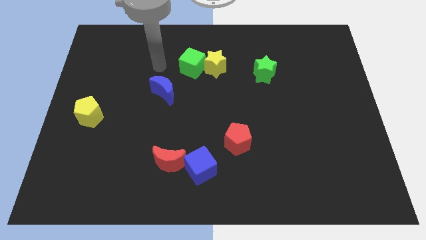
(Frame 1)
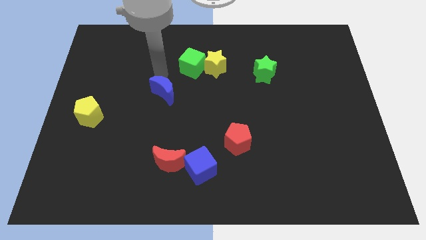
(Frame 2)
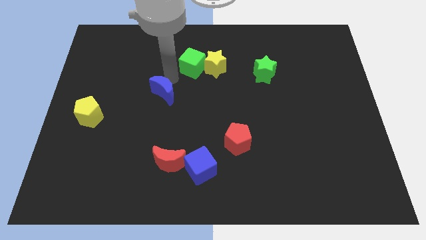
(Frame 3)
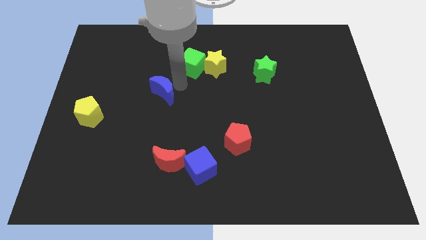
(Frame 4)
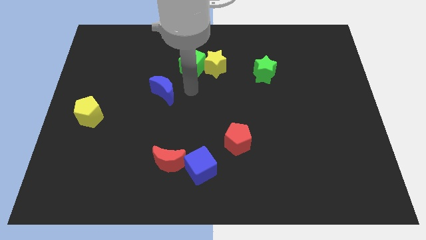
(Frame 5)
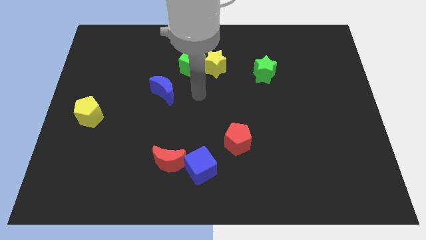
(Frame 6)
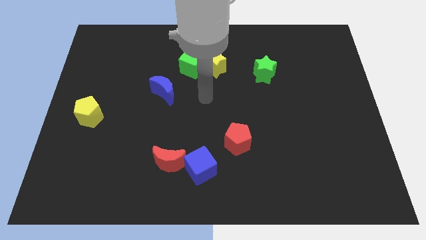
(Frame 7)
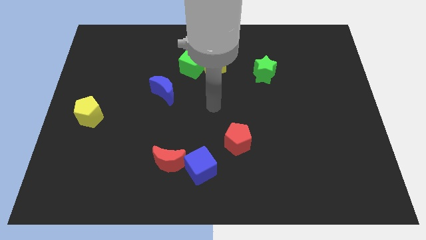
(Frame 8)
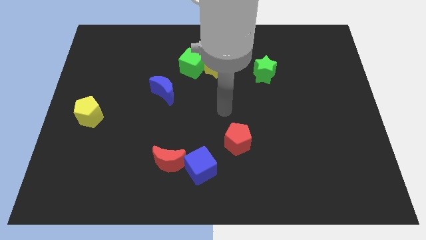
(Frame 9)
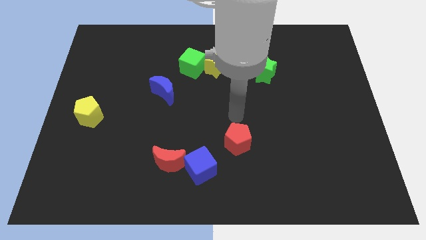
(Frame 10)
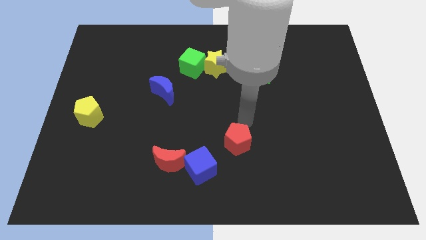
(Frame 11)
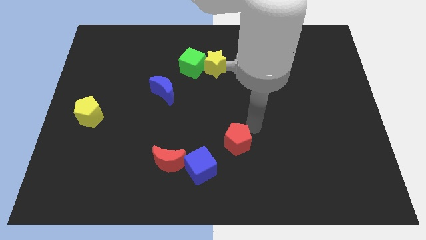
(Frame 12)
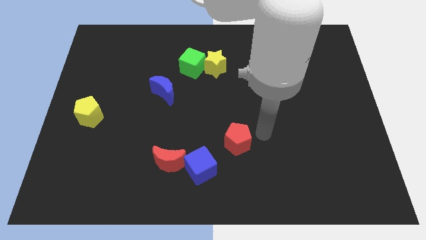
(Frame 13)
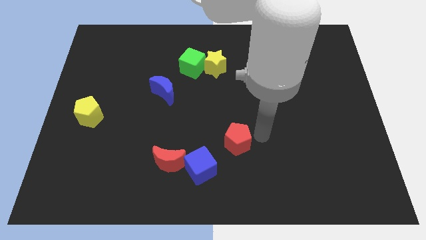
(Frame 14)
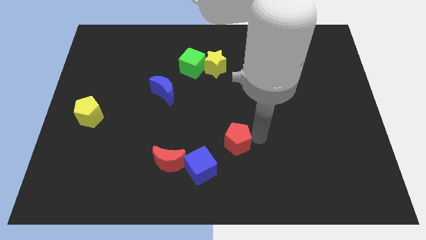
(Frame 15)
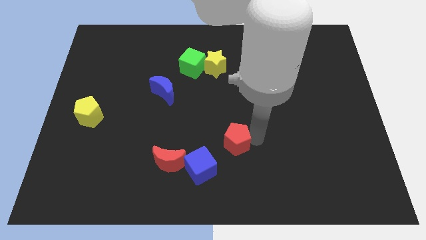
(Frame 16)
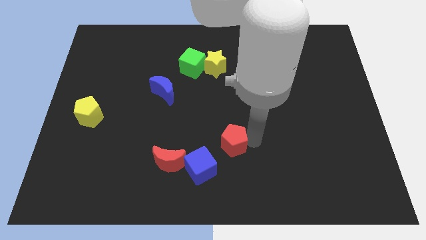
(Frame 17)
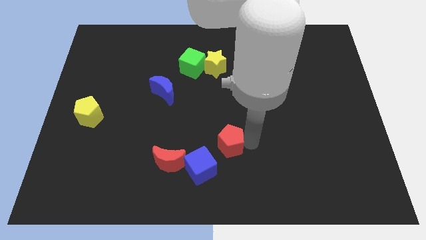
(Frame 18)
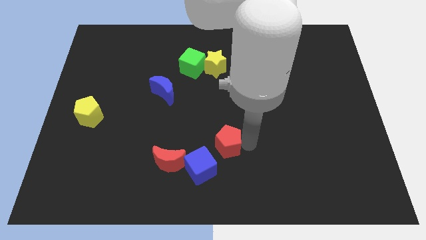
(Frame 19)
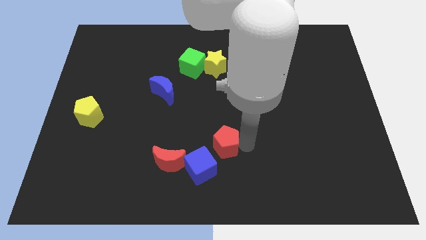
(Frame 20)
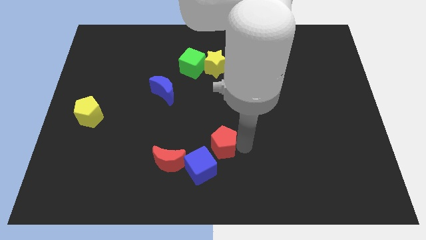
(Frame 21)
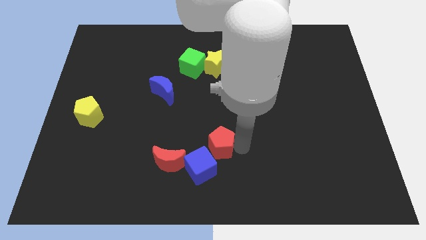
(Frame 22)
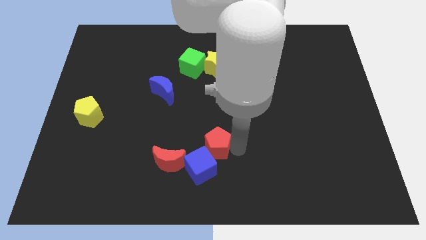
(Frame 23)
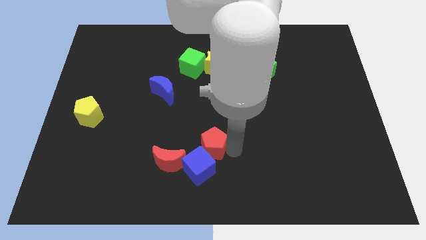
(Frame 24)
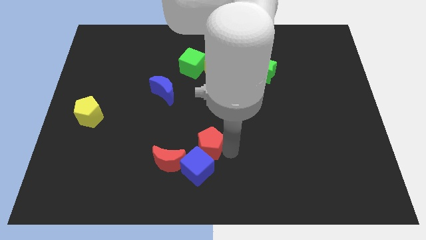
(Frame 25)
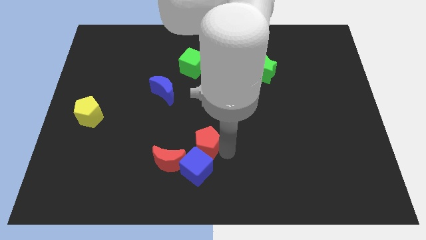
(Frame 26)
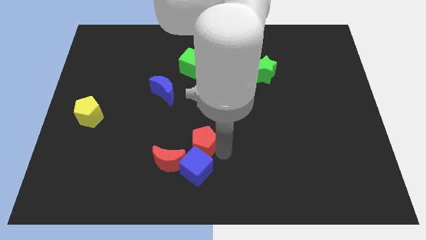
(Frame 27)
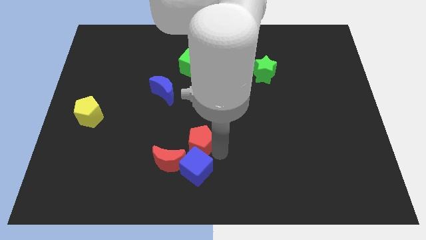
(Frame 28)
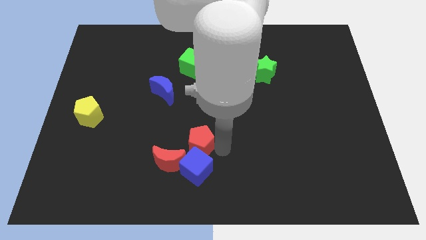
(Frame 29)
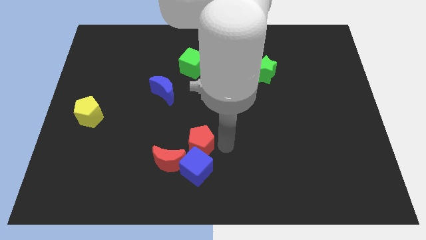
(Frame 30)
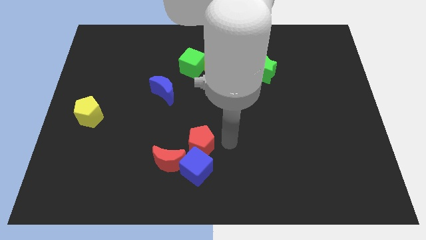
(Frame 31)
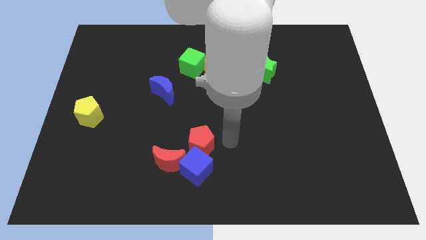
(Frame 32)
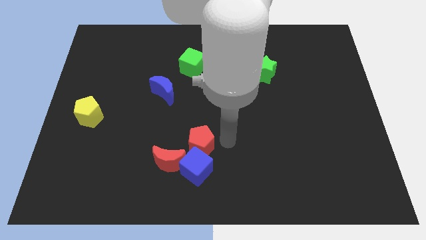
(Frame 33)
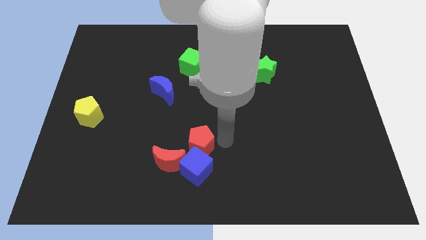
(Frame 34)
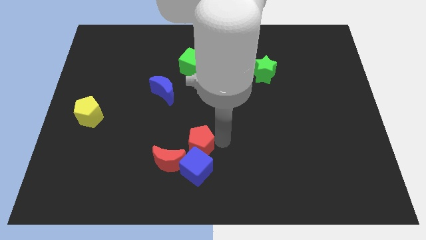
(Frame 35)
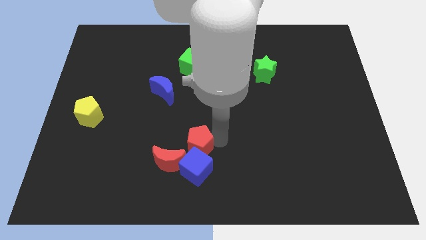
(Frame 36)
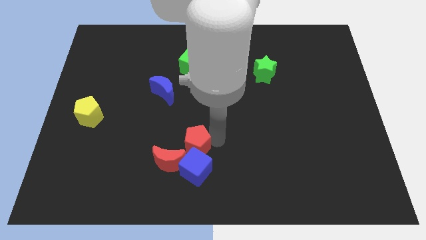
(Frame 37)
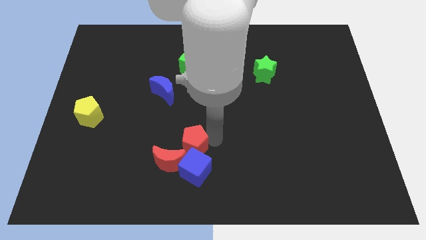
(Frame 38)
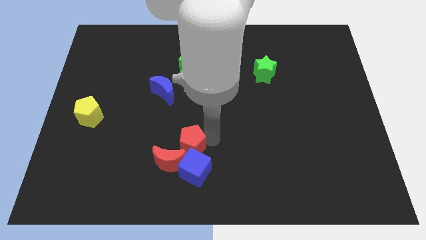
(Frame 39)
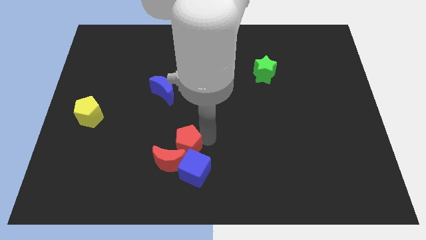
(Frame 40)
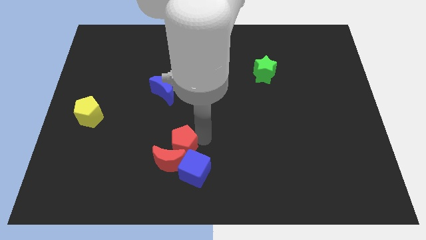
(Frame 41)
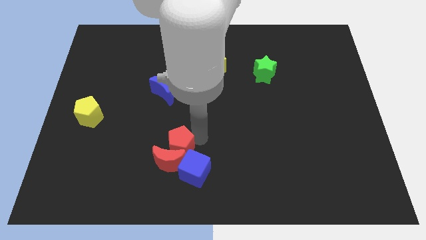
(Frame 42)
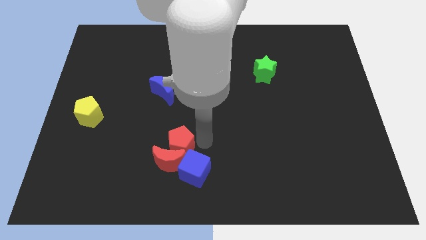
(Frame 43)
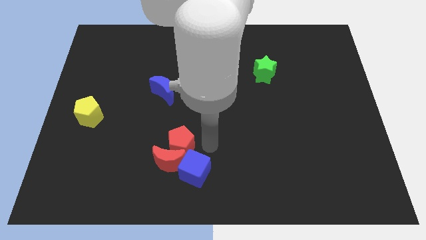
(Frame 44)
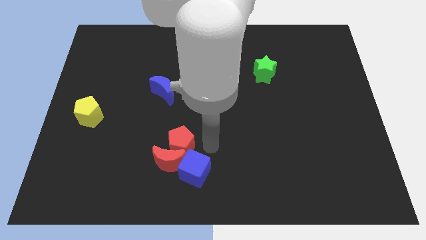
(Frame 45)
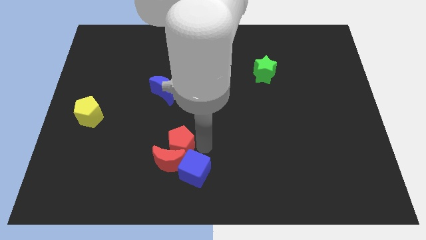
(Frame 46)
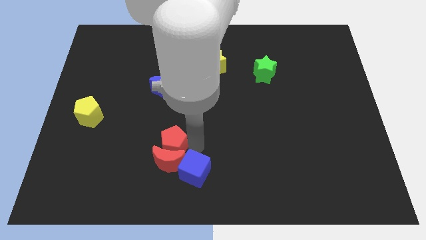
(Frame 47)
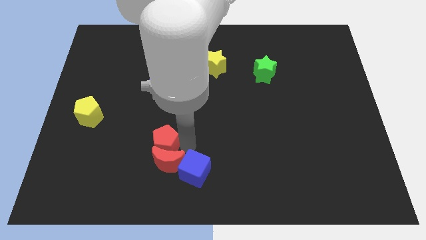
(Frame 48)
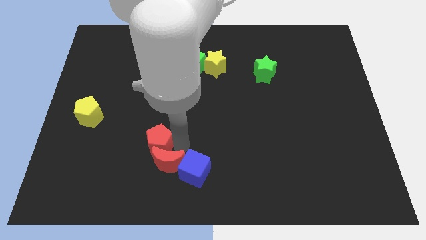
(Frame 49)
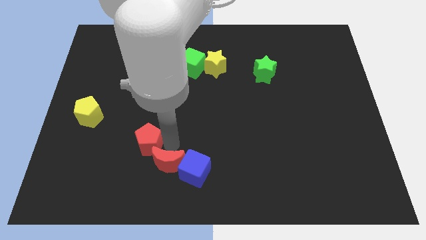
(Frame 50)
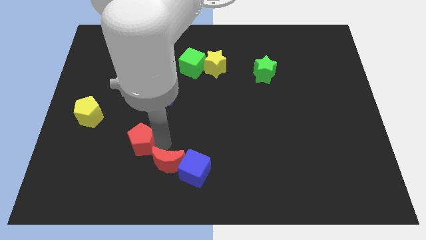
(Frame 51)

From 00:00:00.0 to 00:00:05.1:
push the red pentagon to the left

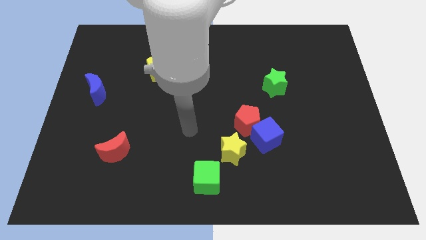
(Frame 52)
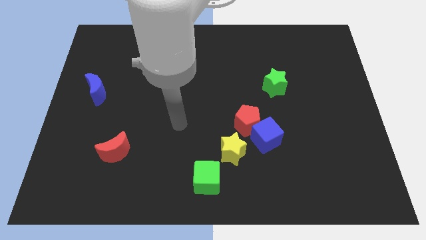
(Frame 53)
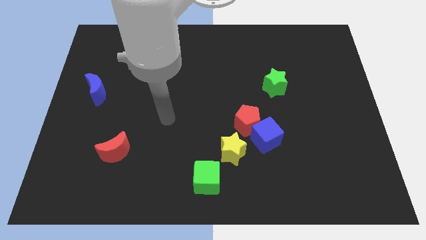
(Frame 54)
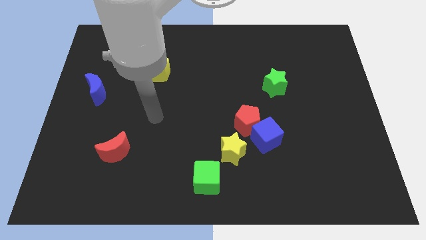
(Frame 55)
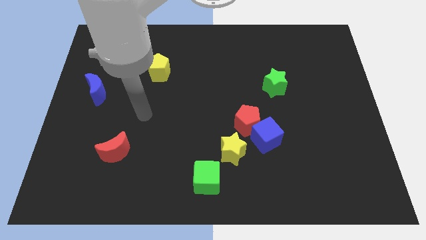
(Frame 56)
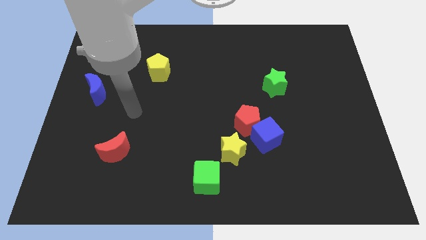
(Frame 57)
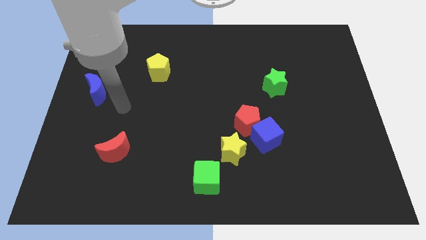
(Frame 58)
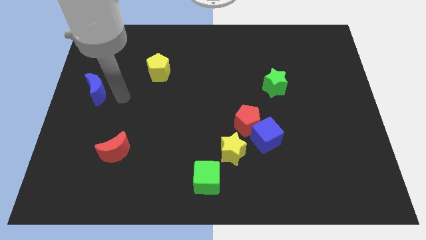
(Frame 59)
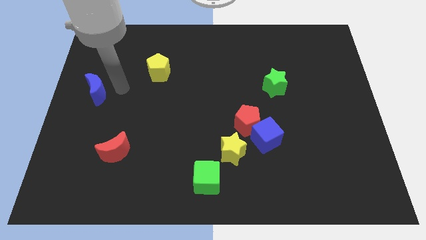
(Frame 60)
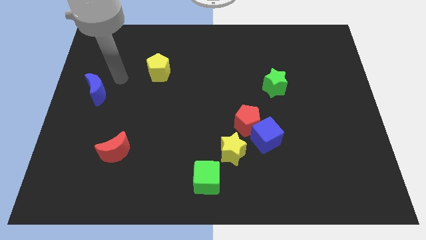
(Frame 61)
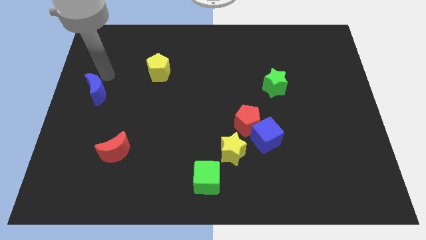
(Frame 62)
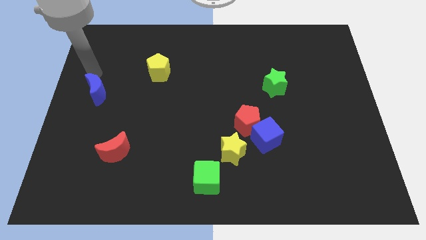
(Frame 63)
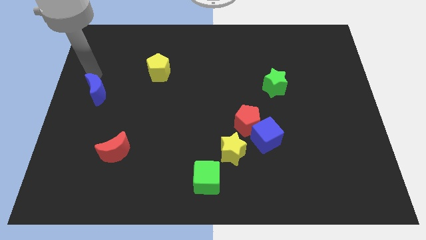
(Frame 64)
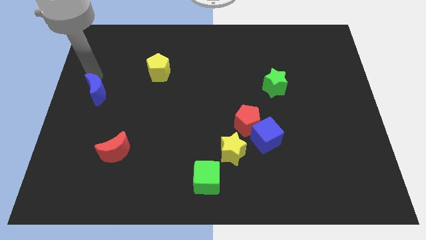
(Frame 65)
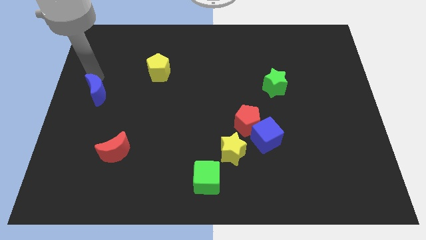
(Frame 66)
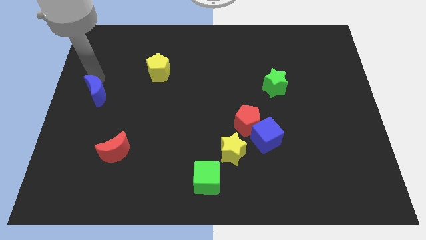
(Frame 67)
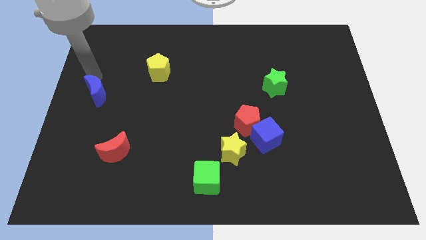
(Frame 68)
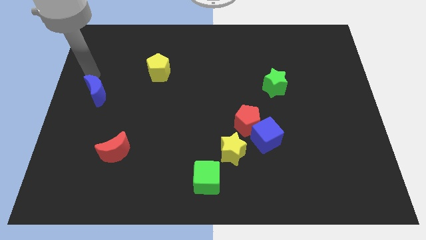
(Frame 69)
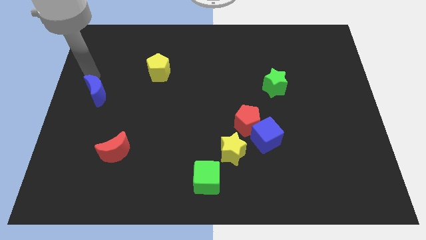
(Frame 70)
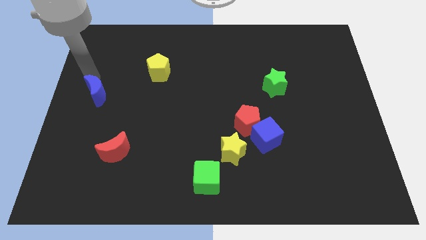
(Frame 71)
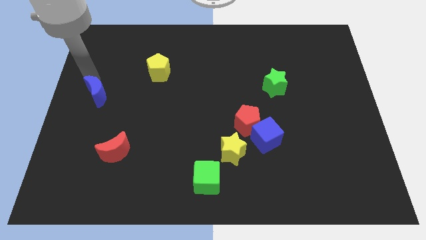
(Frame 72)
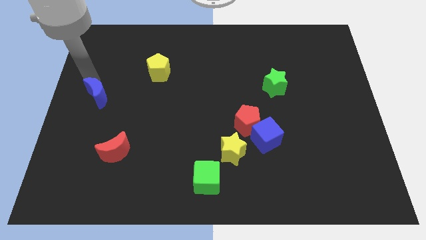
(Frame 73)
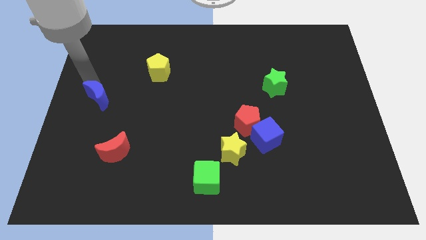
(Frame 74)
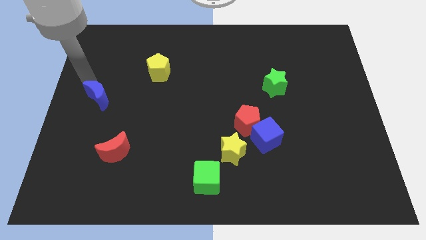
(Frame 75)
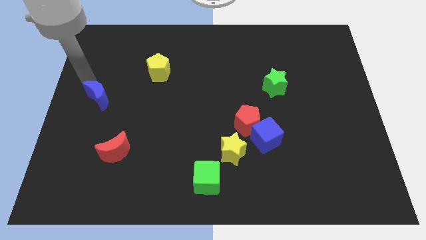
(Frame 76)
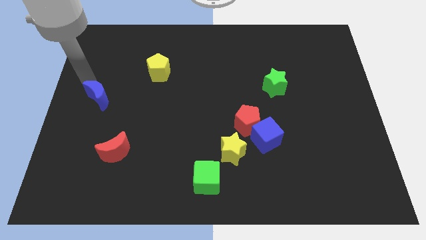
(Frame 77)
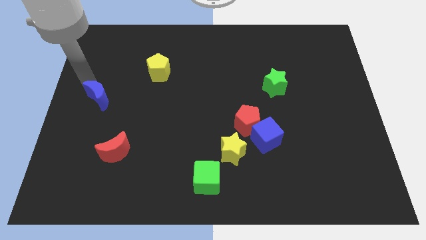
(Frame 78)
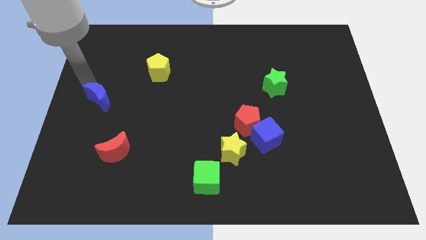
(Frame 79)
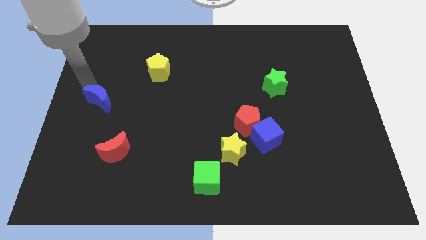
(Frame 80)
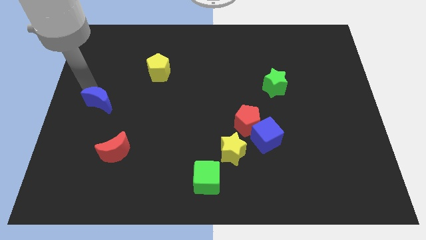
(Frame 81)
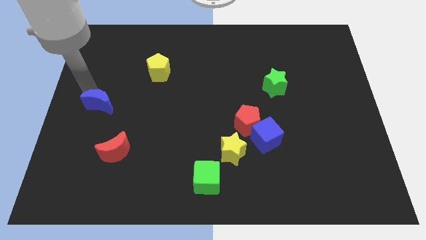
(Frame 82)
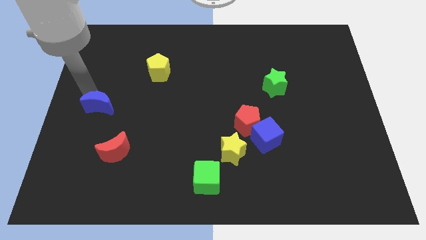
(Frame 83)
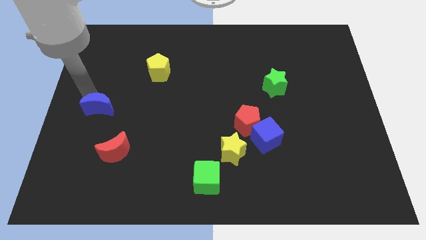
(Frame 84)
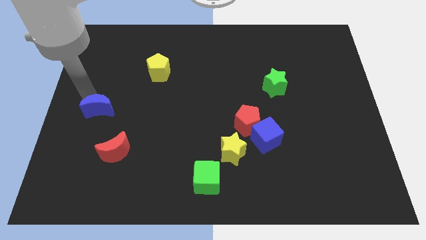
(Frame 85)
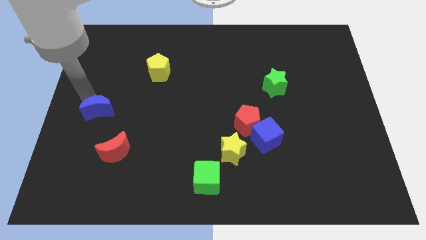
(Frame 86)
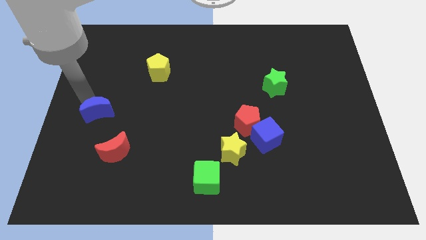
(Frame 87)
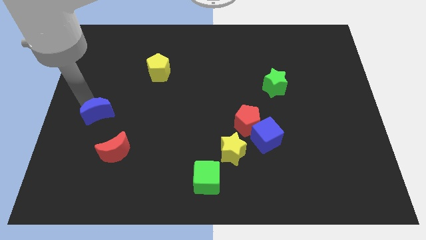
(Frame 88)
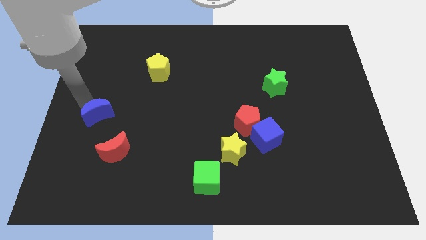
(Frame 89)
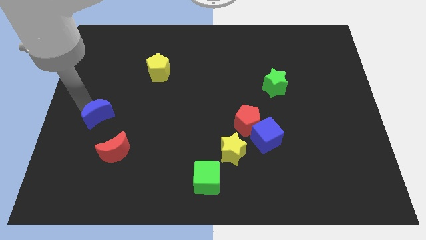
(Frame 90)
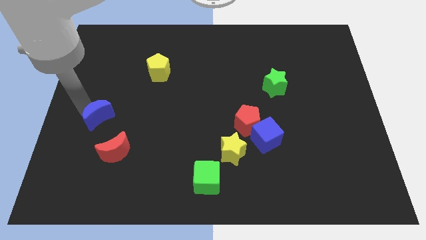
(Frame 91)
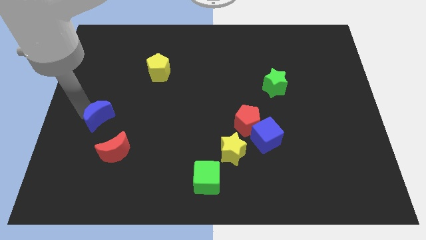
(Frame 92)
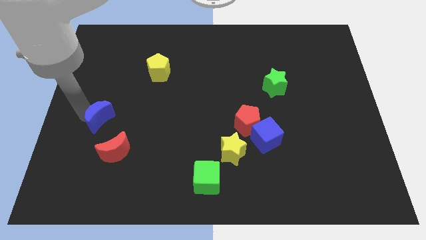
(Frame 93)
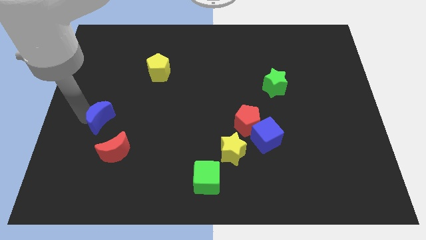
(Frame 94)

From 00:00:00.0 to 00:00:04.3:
move the blue moon a little bit down and right
